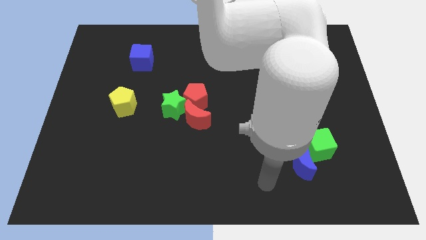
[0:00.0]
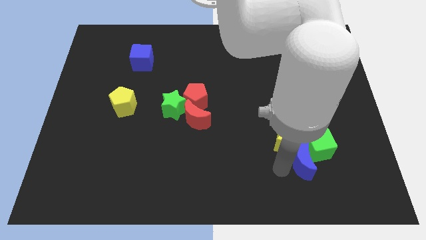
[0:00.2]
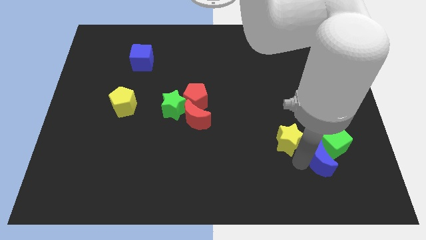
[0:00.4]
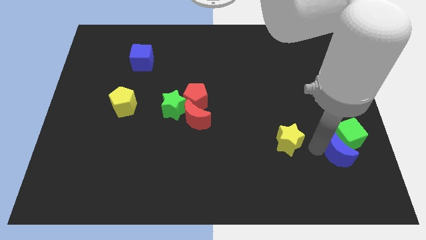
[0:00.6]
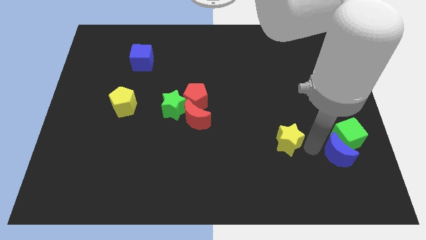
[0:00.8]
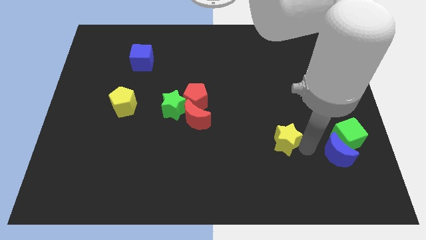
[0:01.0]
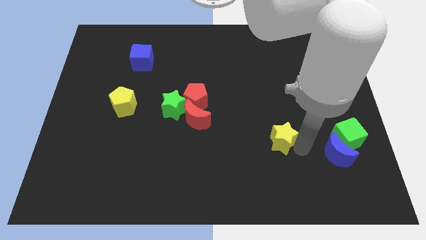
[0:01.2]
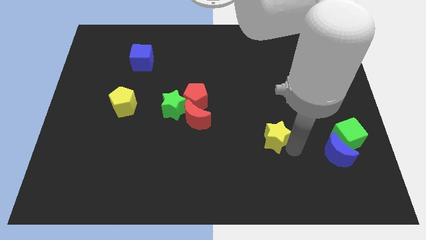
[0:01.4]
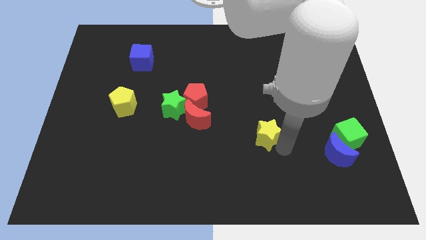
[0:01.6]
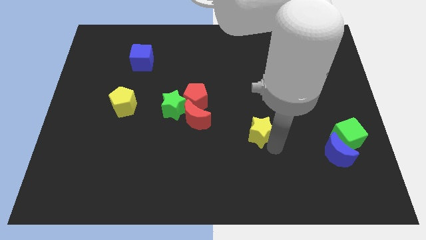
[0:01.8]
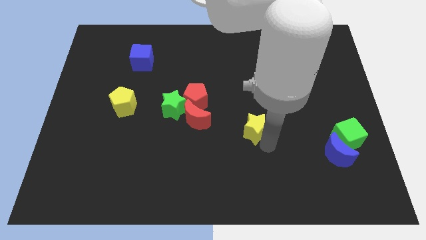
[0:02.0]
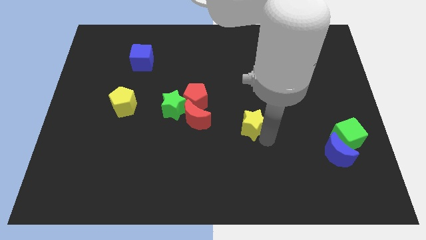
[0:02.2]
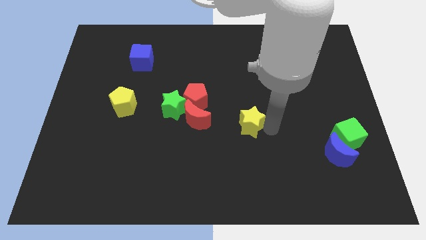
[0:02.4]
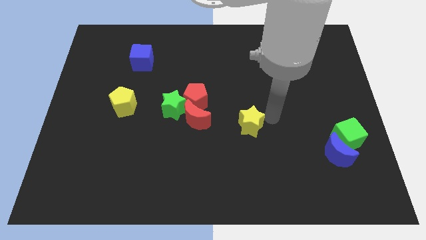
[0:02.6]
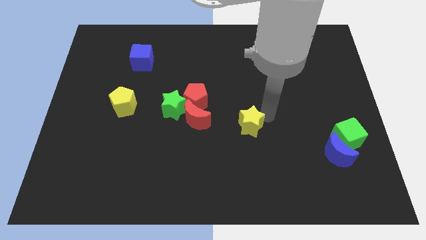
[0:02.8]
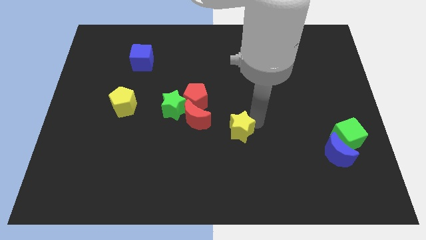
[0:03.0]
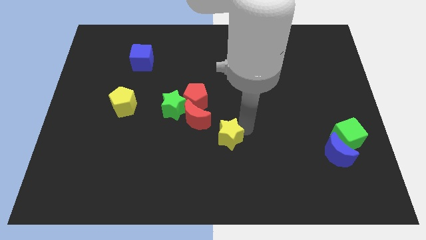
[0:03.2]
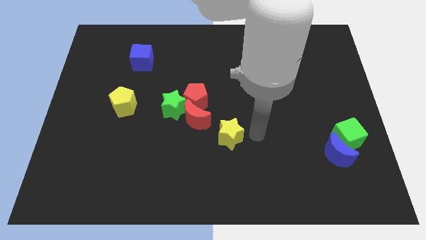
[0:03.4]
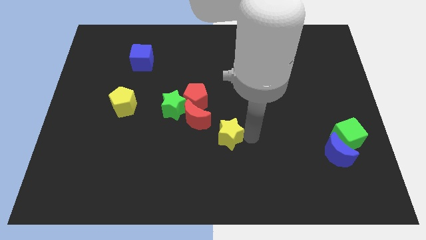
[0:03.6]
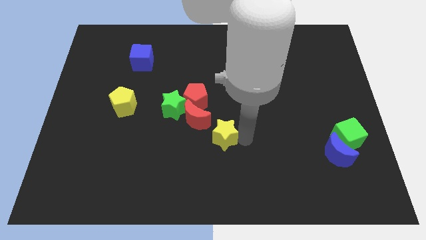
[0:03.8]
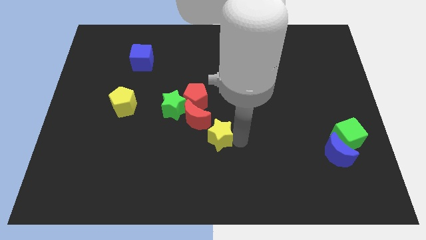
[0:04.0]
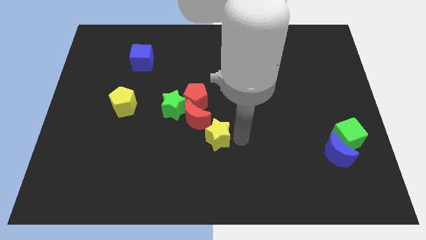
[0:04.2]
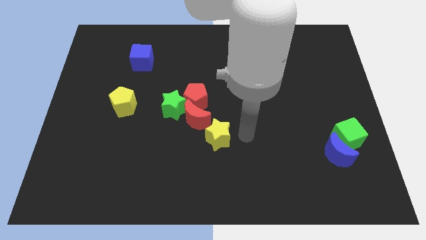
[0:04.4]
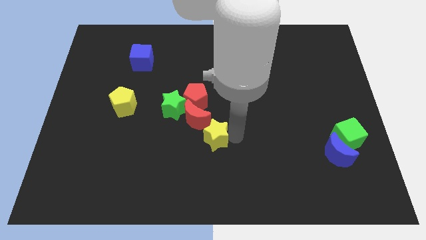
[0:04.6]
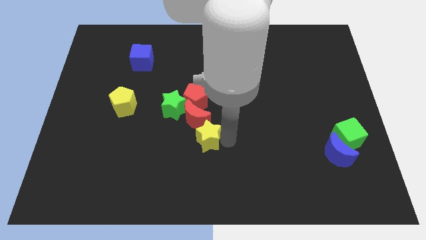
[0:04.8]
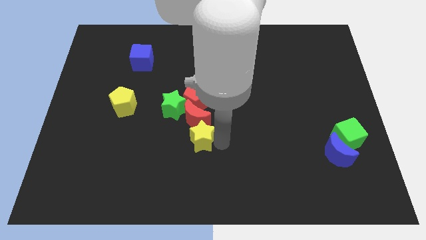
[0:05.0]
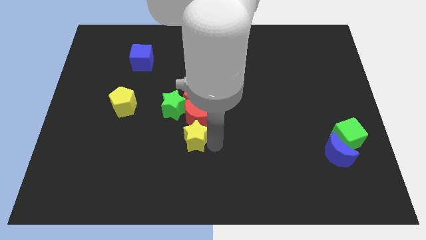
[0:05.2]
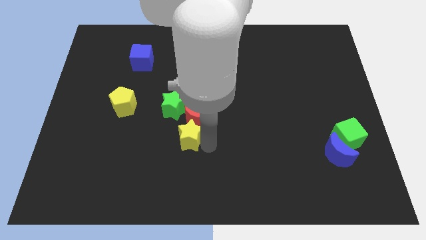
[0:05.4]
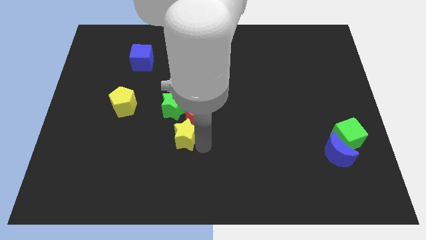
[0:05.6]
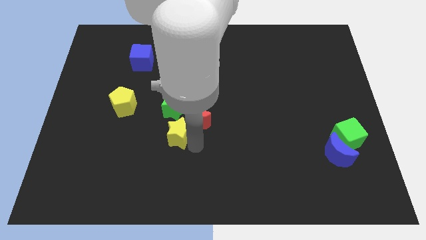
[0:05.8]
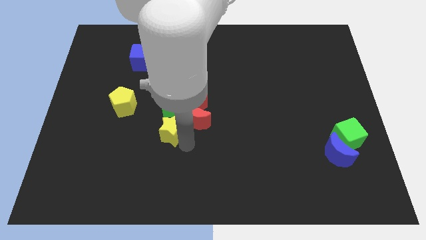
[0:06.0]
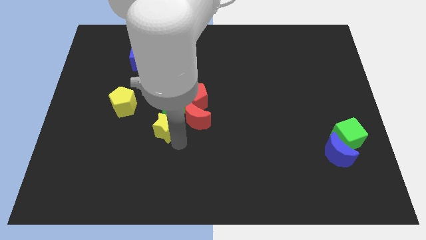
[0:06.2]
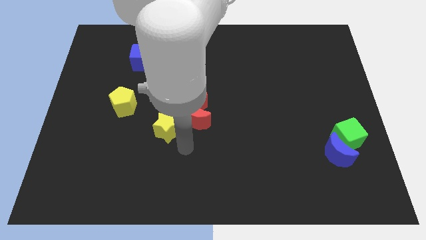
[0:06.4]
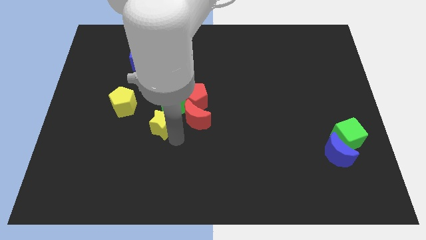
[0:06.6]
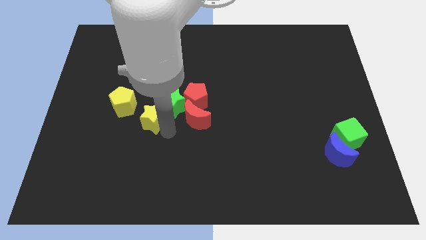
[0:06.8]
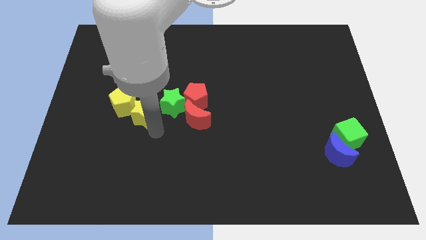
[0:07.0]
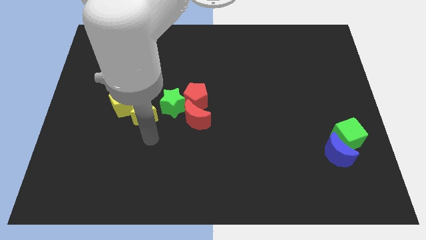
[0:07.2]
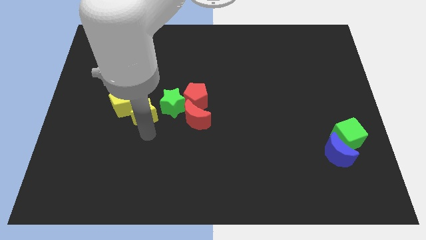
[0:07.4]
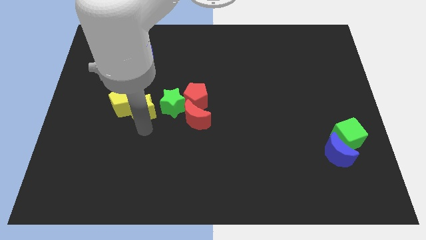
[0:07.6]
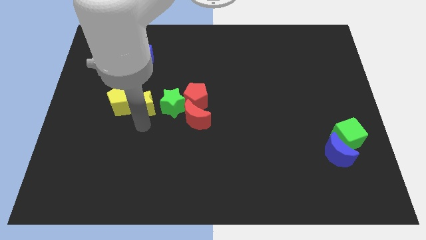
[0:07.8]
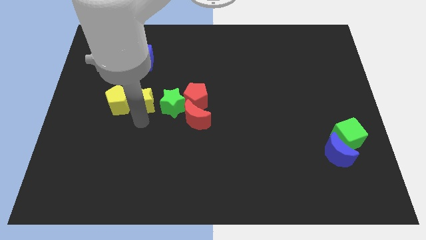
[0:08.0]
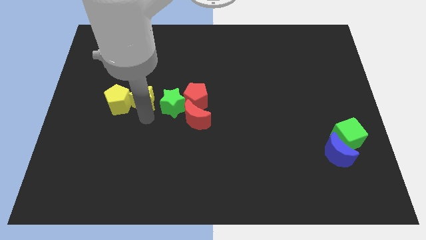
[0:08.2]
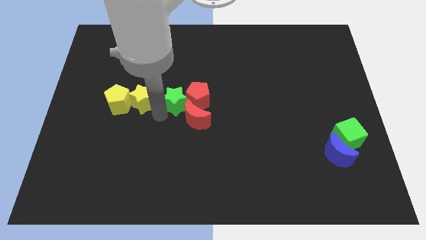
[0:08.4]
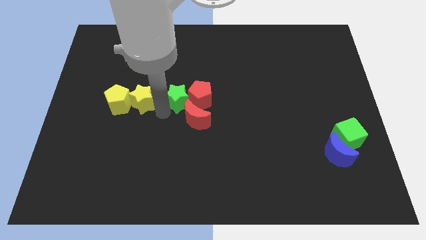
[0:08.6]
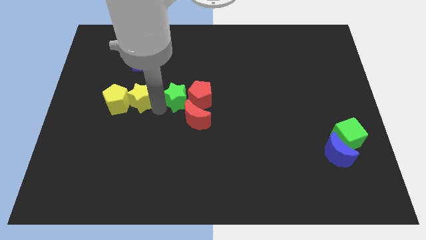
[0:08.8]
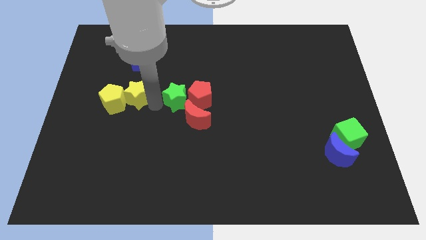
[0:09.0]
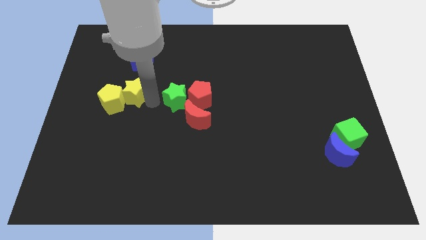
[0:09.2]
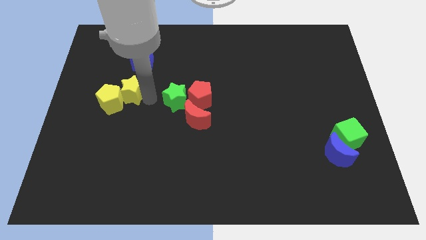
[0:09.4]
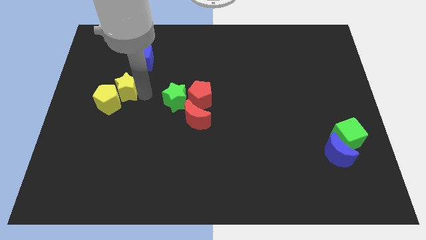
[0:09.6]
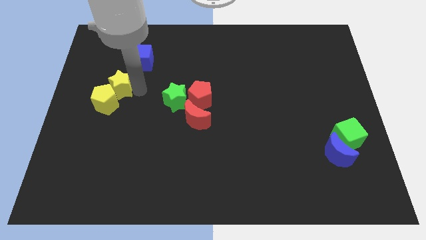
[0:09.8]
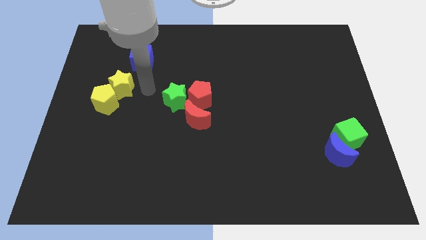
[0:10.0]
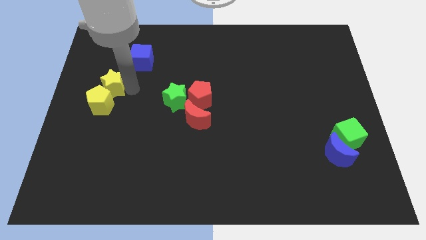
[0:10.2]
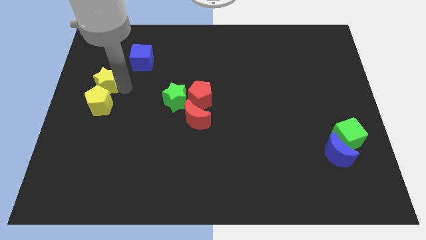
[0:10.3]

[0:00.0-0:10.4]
push the yellow star to the top left of the yellow pentagon

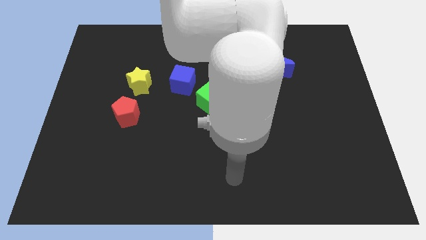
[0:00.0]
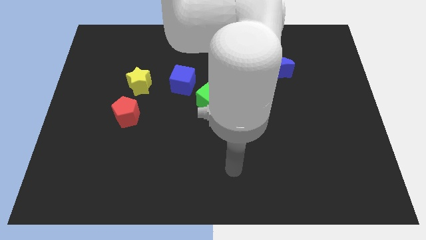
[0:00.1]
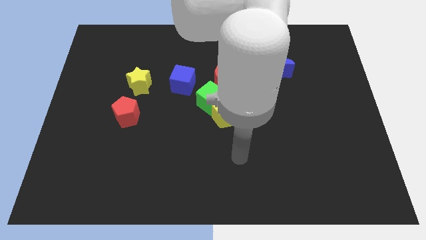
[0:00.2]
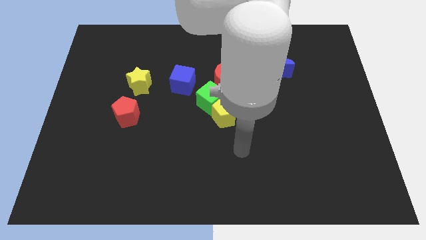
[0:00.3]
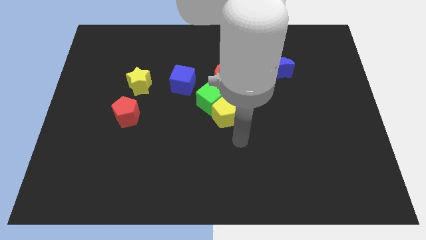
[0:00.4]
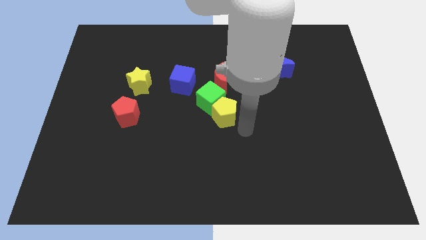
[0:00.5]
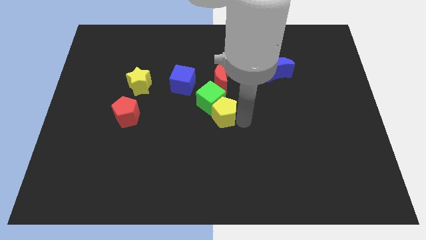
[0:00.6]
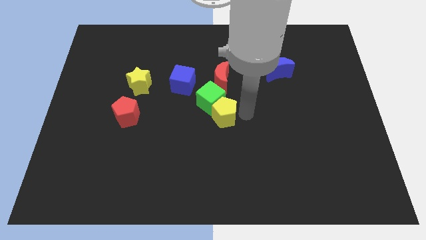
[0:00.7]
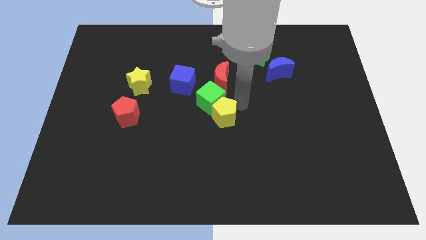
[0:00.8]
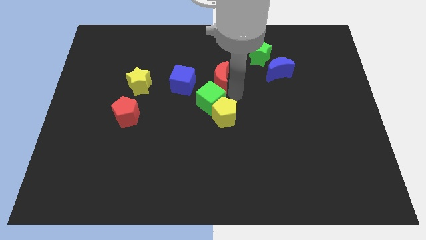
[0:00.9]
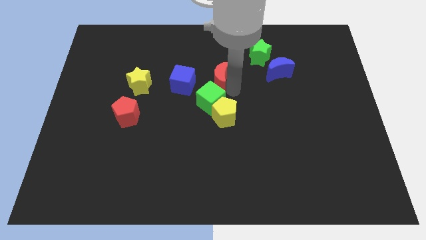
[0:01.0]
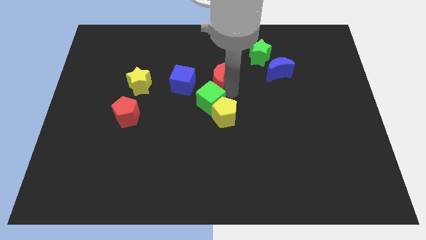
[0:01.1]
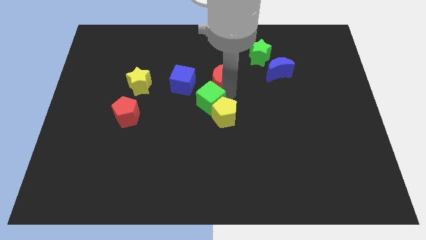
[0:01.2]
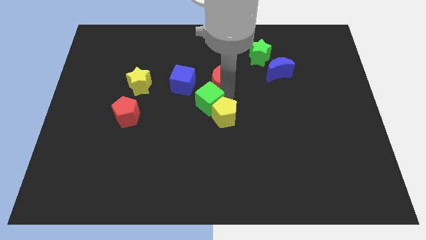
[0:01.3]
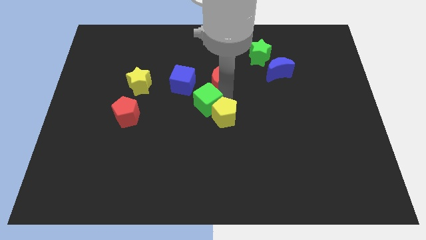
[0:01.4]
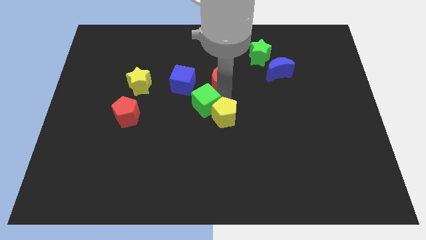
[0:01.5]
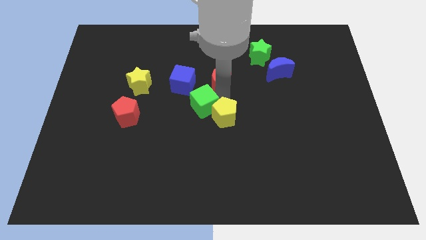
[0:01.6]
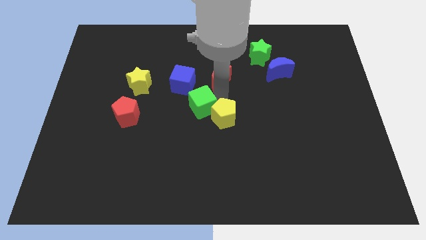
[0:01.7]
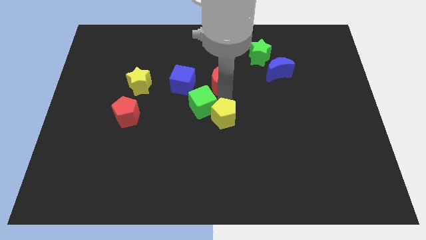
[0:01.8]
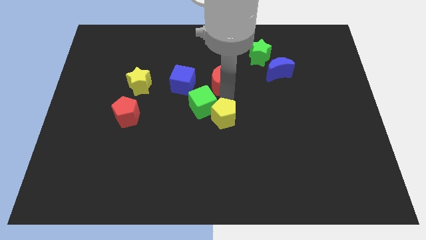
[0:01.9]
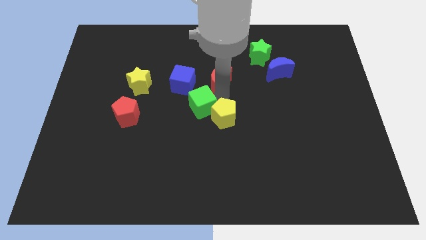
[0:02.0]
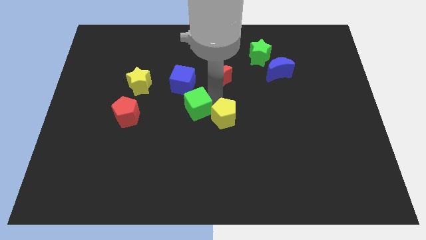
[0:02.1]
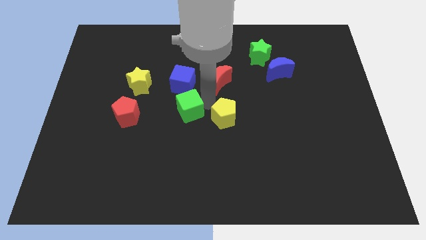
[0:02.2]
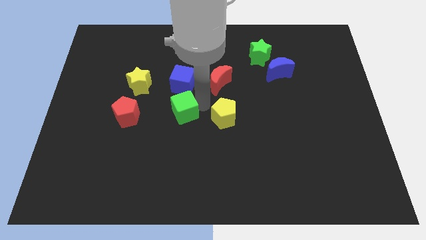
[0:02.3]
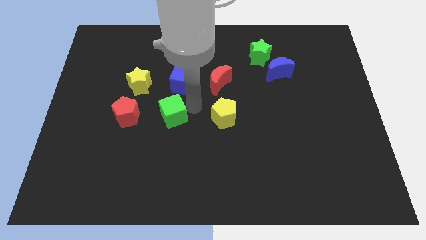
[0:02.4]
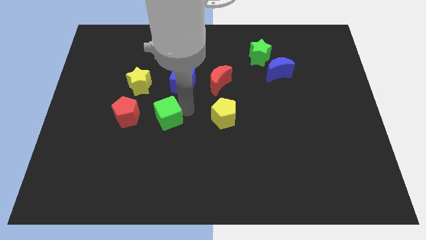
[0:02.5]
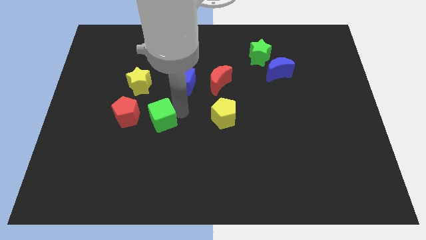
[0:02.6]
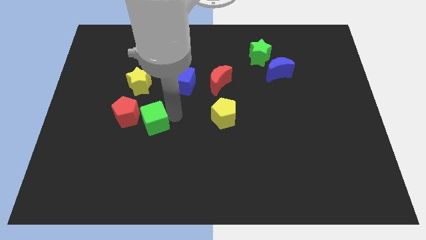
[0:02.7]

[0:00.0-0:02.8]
move the green cube to the bottom side of the yellow star
